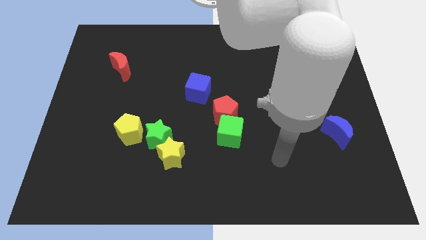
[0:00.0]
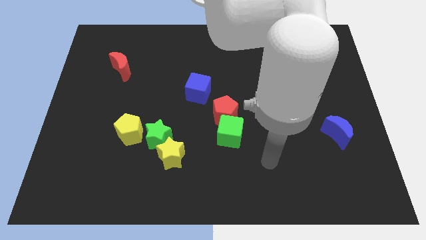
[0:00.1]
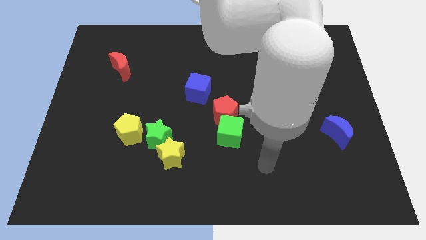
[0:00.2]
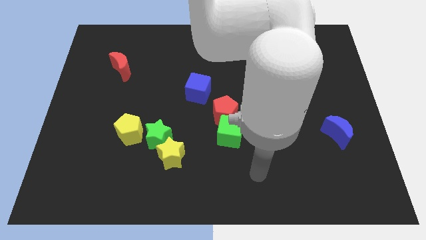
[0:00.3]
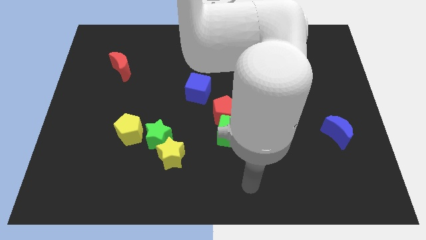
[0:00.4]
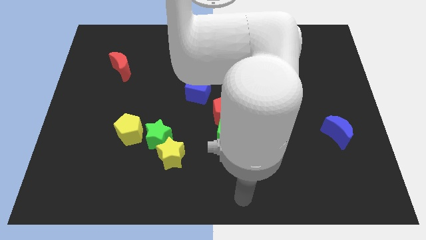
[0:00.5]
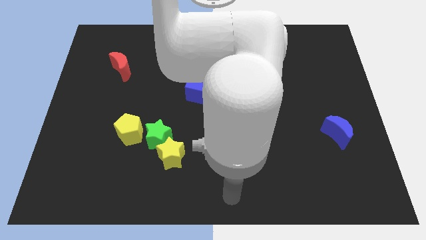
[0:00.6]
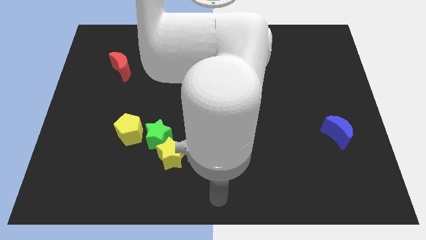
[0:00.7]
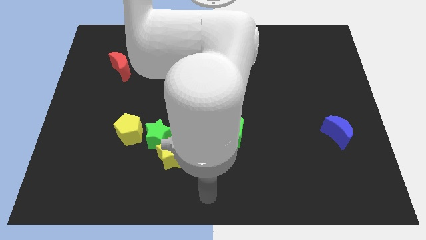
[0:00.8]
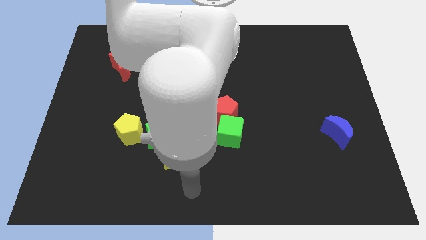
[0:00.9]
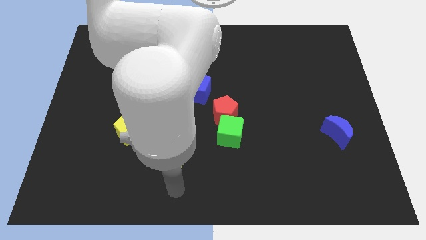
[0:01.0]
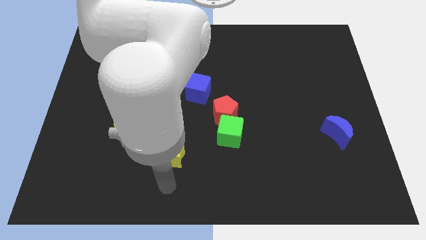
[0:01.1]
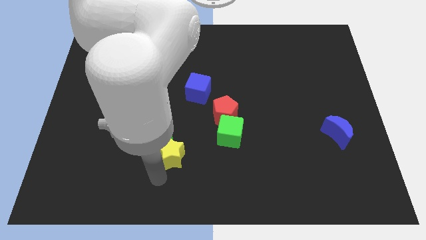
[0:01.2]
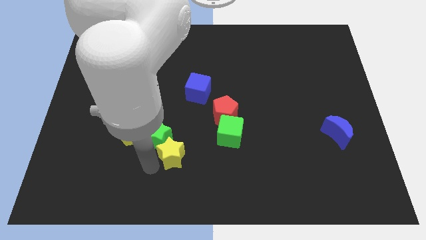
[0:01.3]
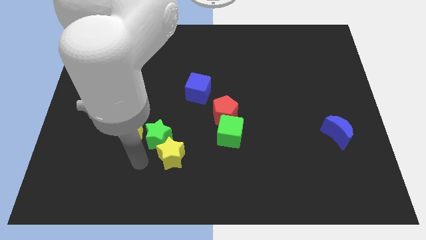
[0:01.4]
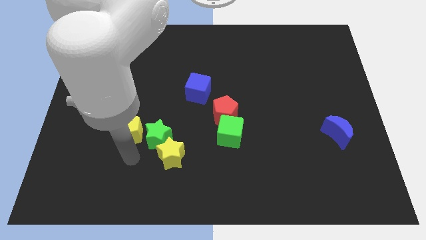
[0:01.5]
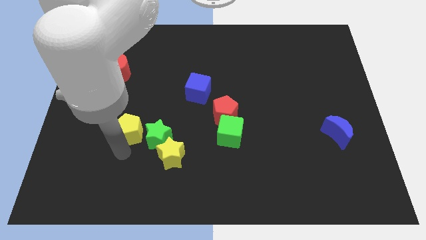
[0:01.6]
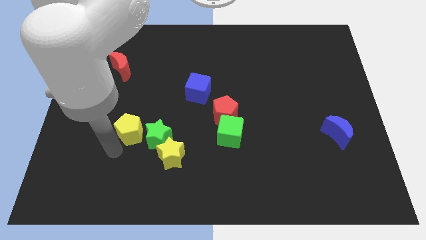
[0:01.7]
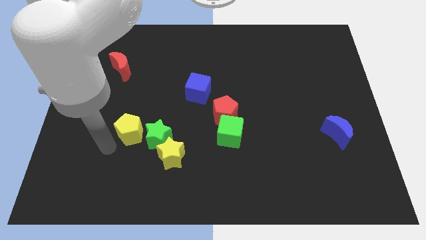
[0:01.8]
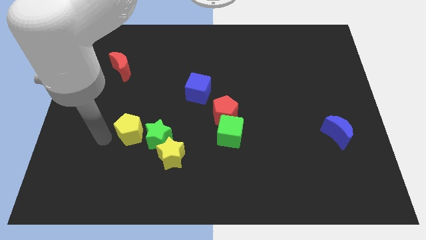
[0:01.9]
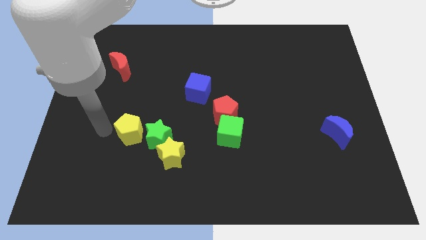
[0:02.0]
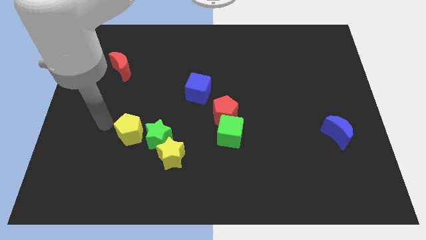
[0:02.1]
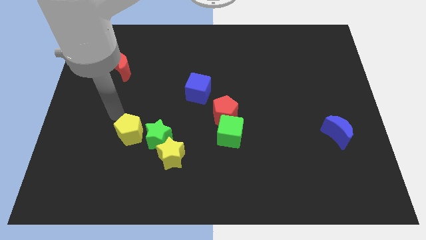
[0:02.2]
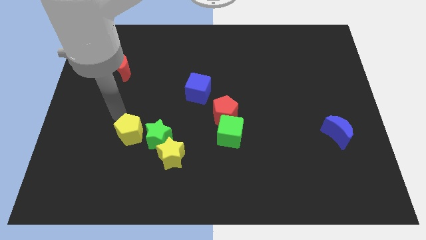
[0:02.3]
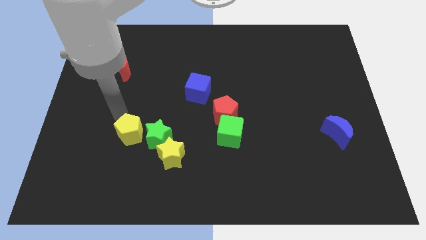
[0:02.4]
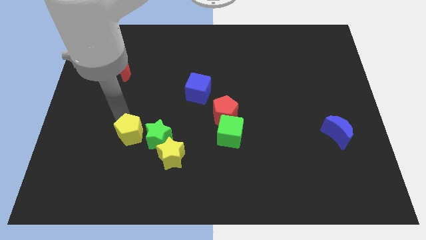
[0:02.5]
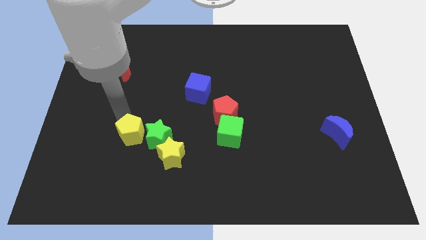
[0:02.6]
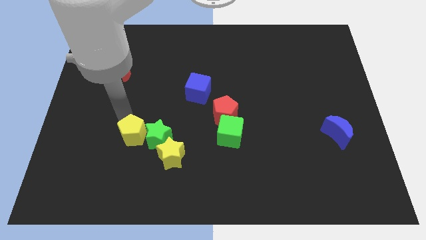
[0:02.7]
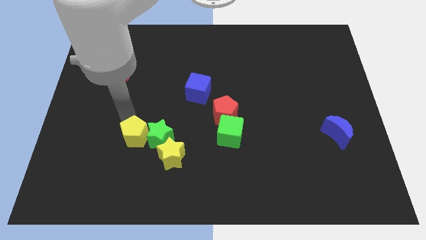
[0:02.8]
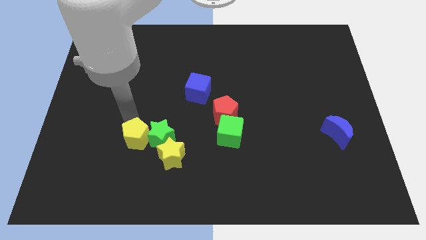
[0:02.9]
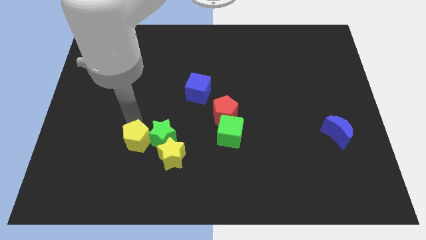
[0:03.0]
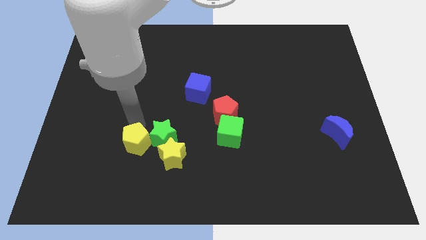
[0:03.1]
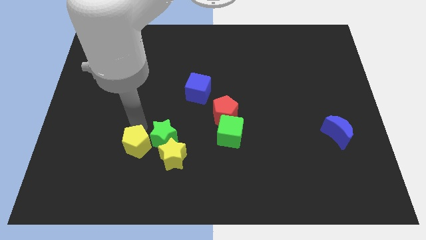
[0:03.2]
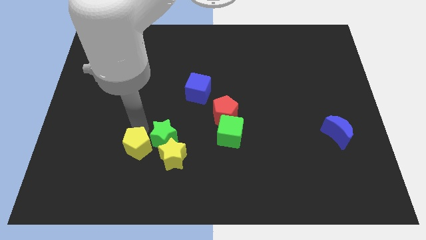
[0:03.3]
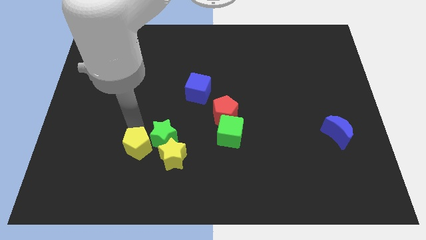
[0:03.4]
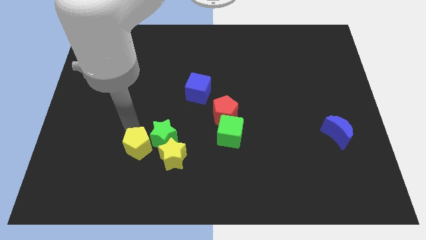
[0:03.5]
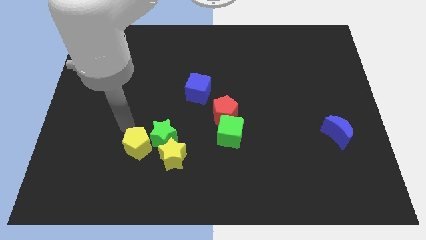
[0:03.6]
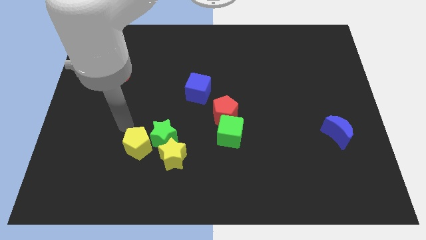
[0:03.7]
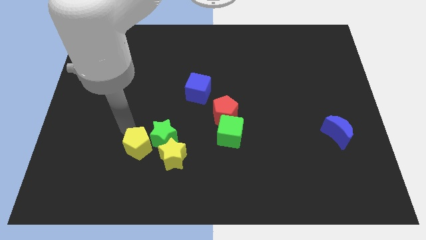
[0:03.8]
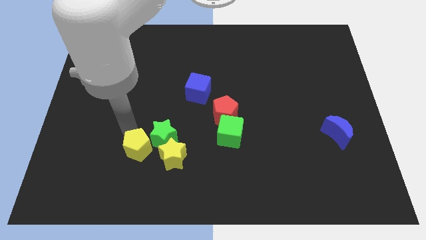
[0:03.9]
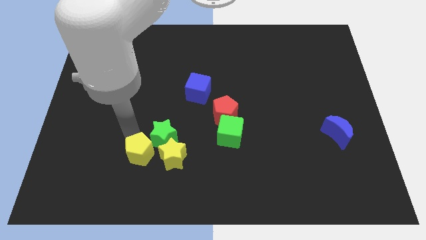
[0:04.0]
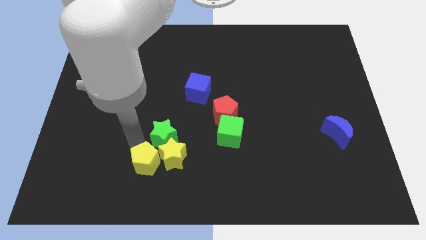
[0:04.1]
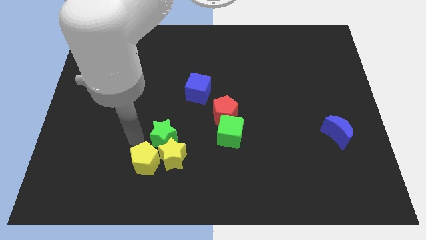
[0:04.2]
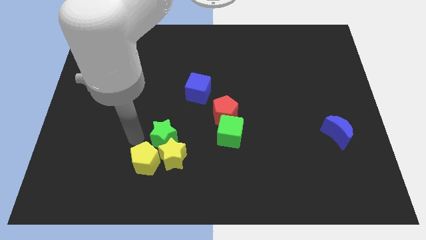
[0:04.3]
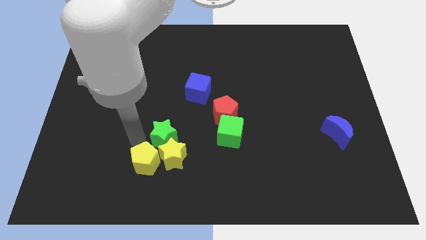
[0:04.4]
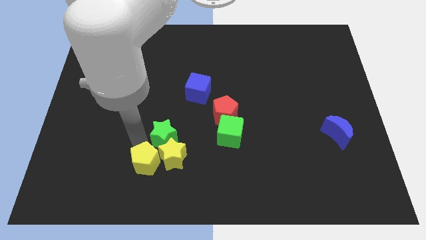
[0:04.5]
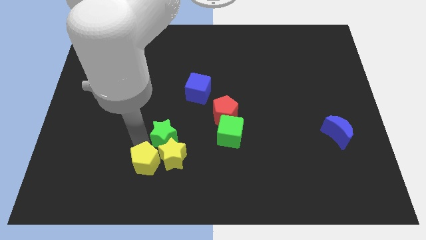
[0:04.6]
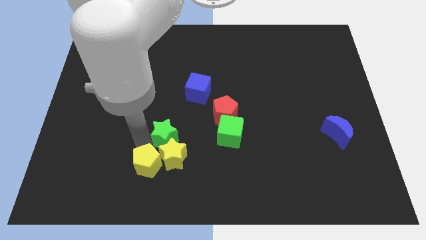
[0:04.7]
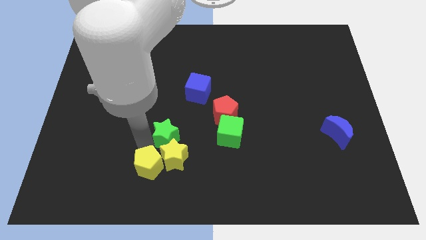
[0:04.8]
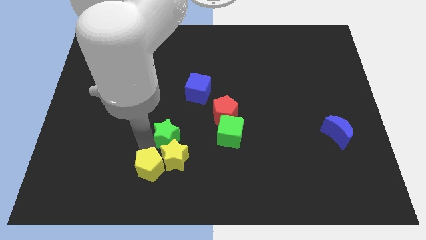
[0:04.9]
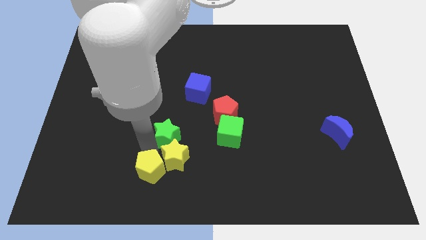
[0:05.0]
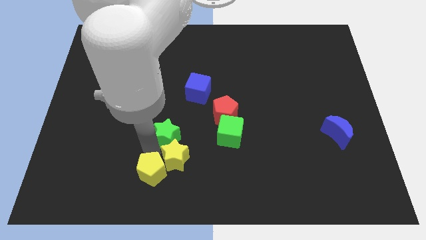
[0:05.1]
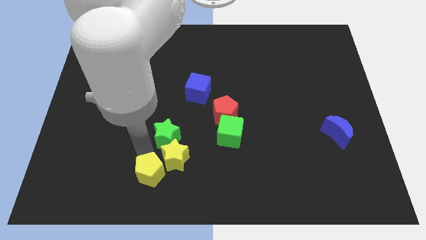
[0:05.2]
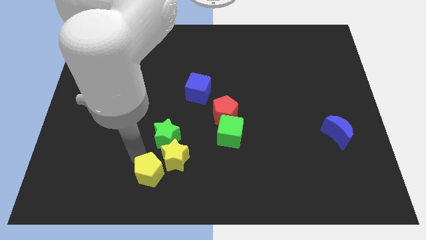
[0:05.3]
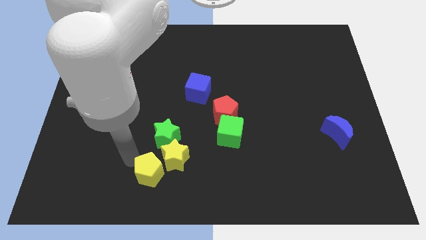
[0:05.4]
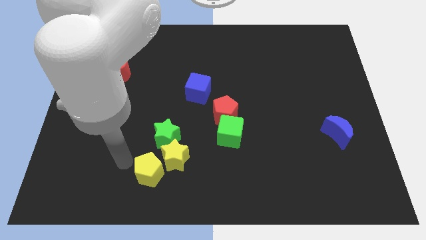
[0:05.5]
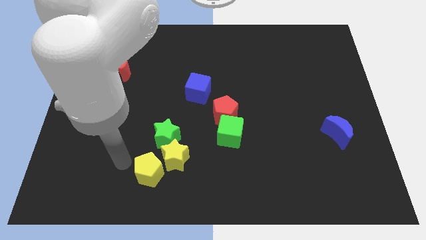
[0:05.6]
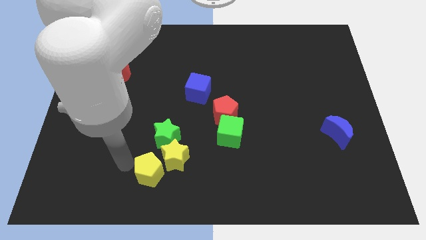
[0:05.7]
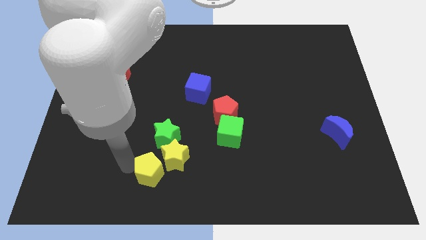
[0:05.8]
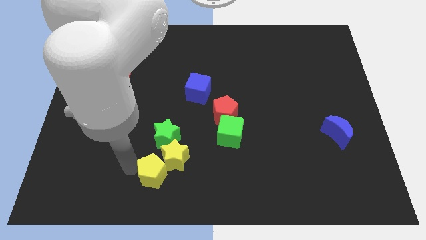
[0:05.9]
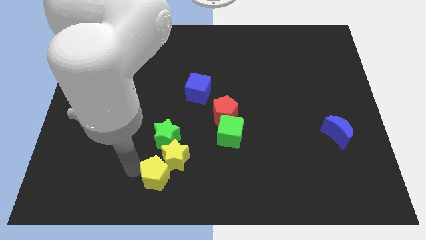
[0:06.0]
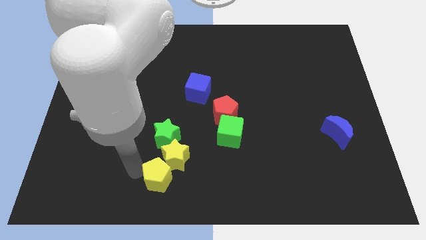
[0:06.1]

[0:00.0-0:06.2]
put the yellow pentagon to the bottom
